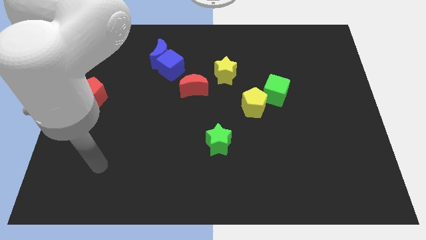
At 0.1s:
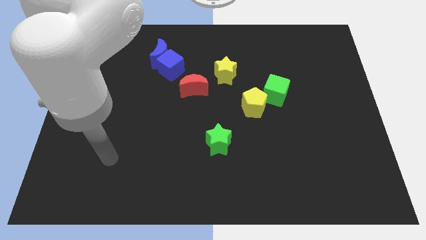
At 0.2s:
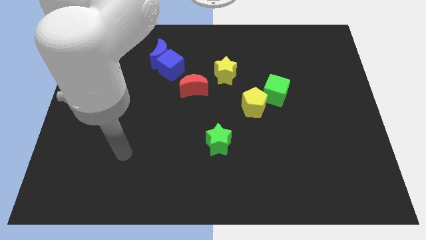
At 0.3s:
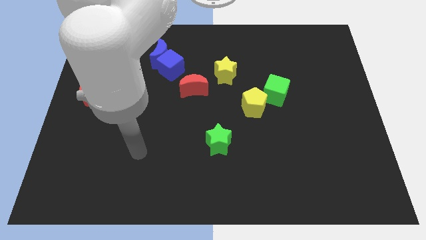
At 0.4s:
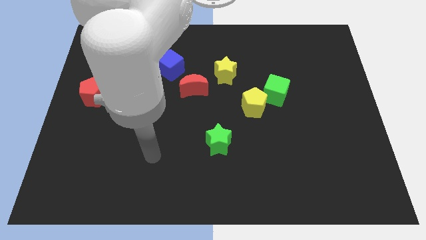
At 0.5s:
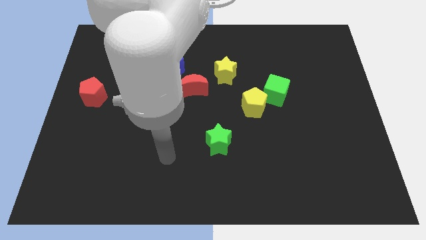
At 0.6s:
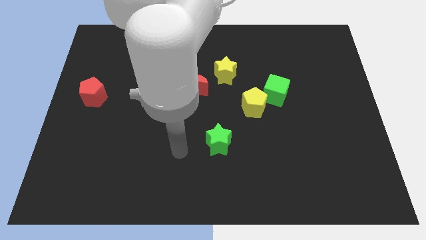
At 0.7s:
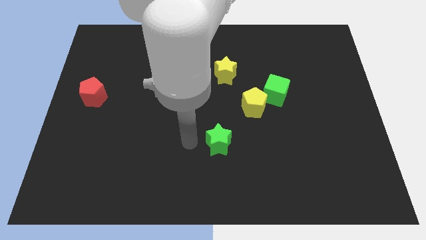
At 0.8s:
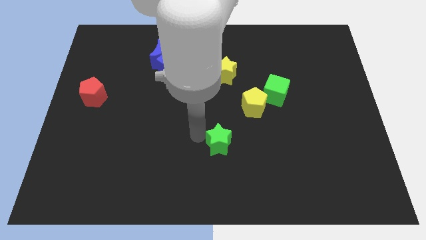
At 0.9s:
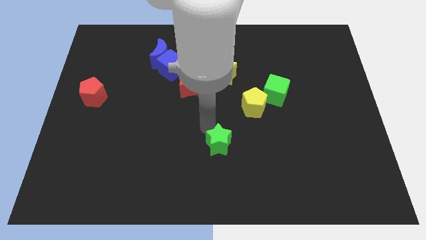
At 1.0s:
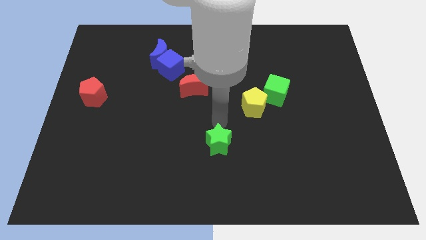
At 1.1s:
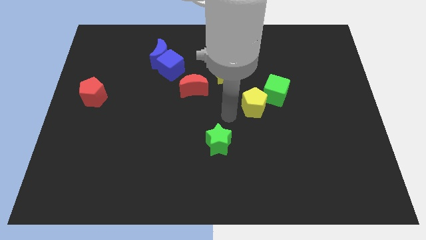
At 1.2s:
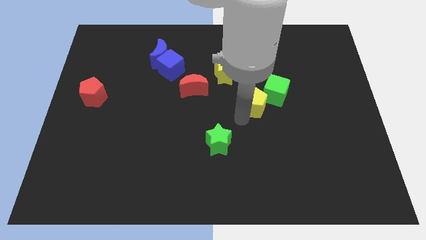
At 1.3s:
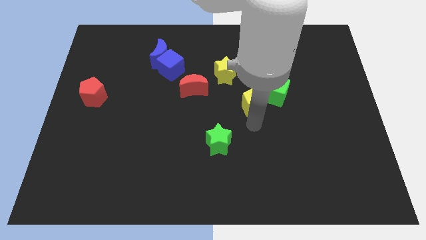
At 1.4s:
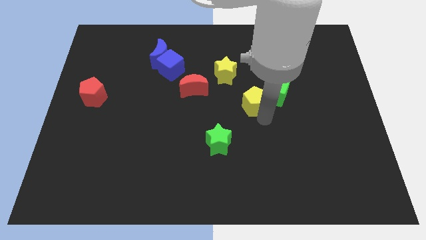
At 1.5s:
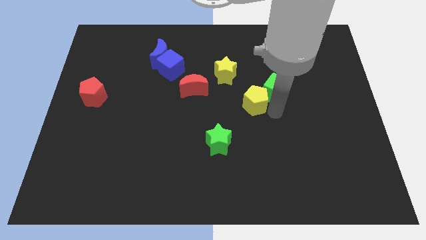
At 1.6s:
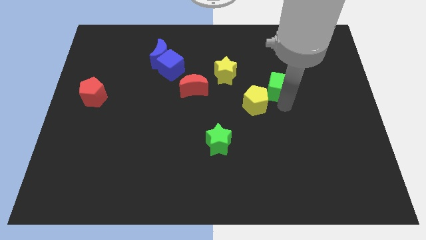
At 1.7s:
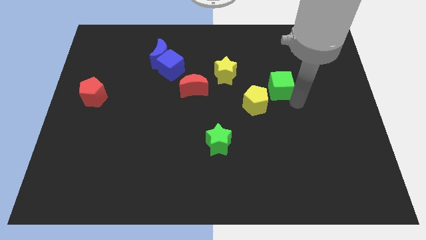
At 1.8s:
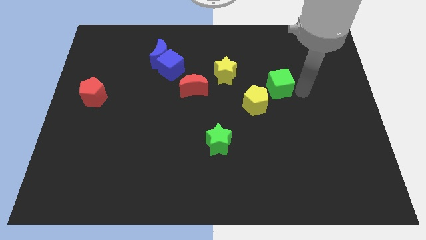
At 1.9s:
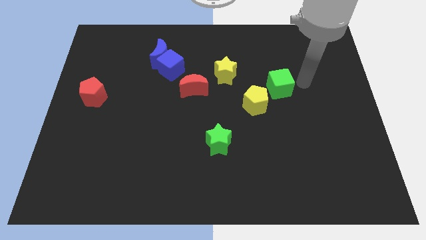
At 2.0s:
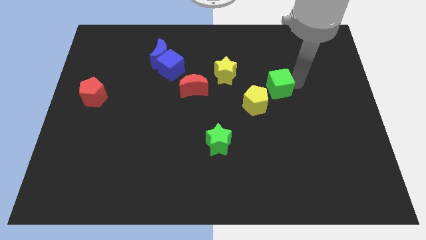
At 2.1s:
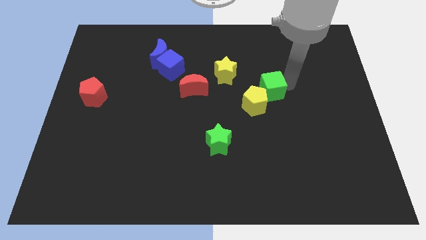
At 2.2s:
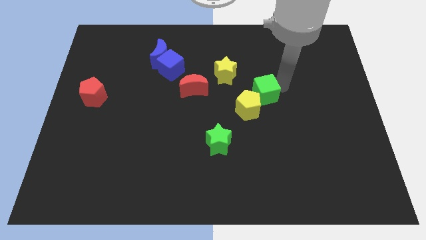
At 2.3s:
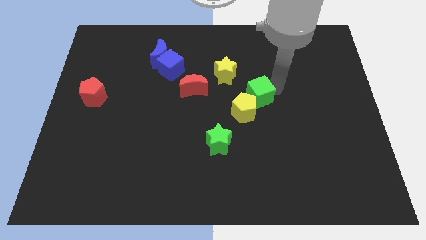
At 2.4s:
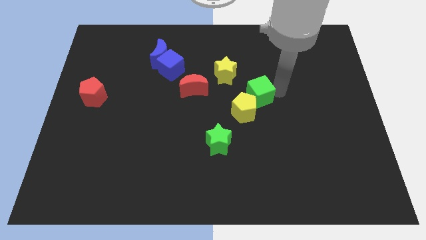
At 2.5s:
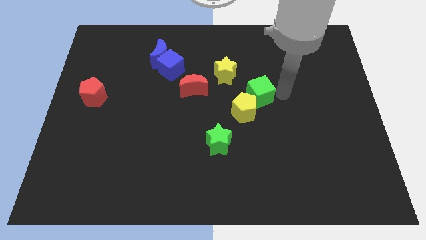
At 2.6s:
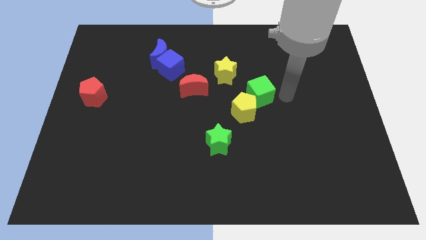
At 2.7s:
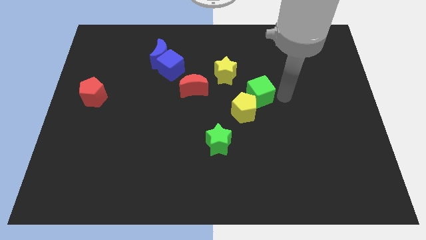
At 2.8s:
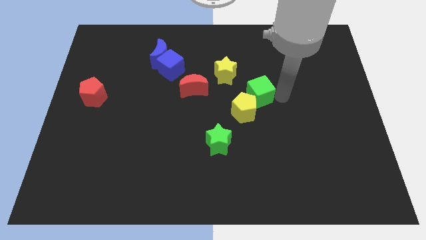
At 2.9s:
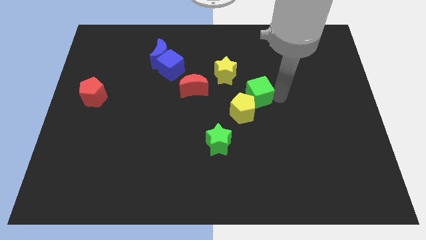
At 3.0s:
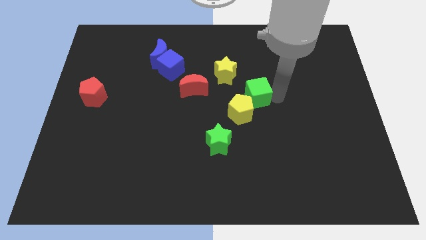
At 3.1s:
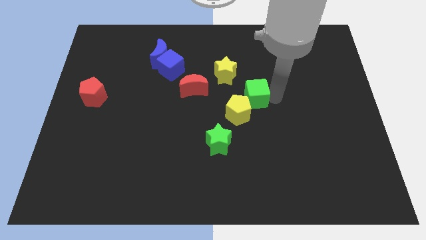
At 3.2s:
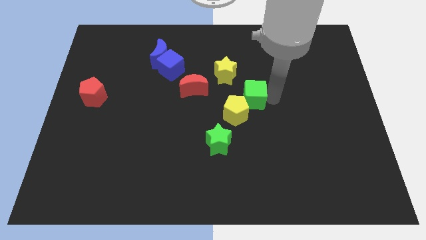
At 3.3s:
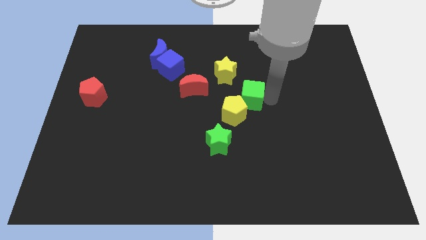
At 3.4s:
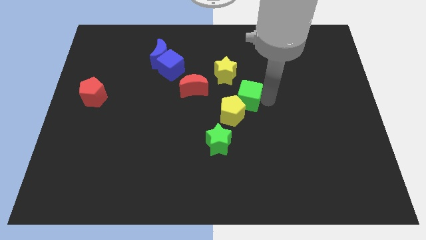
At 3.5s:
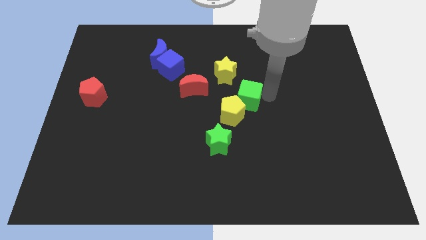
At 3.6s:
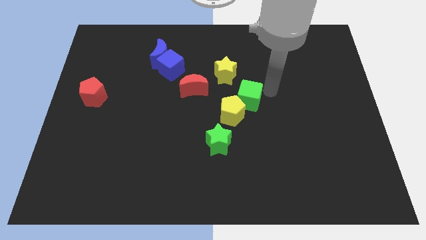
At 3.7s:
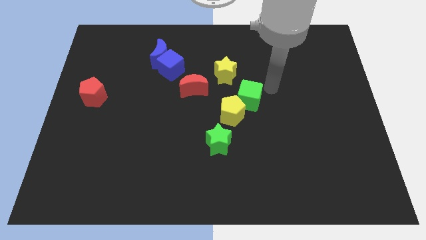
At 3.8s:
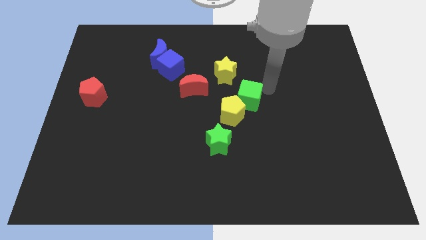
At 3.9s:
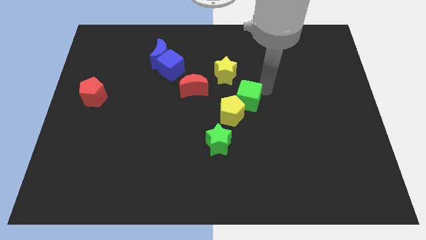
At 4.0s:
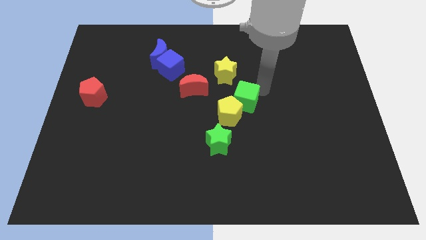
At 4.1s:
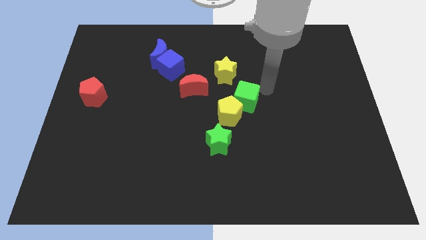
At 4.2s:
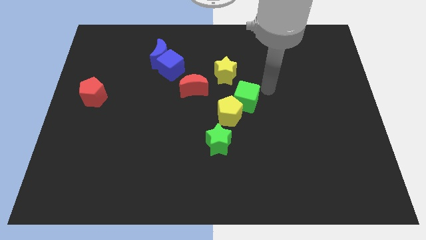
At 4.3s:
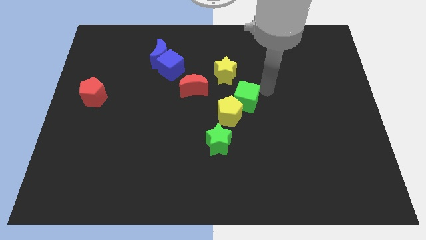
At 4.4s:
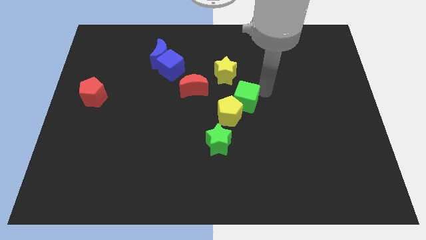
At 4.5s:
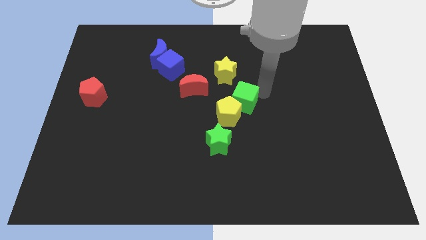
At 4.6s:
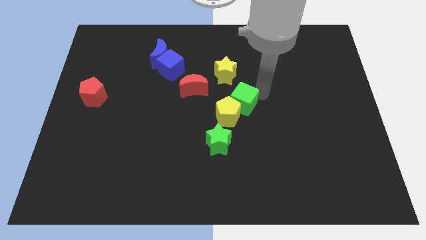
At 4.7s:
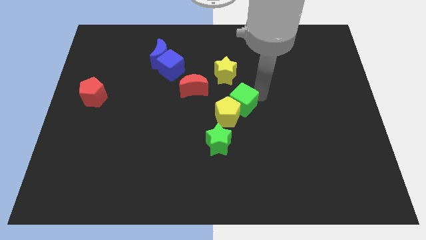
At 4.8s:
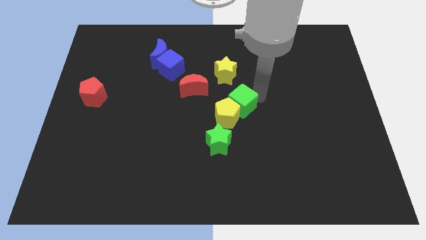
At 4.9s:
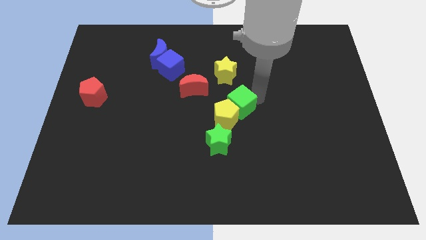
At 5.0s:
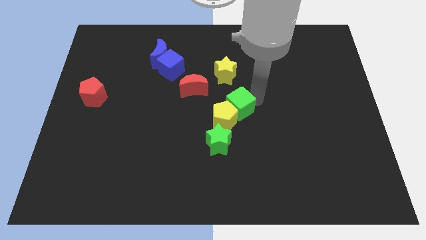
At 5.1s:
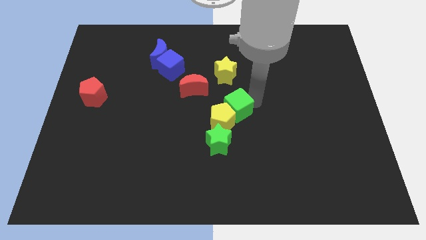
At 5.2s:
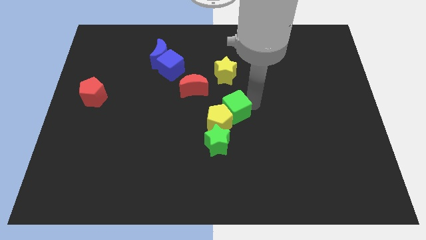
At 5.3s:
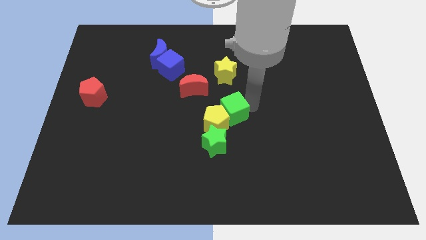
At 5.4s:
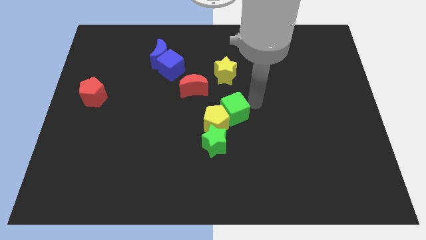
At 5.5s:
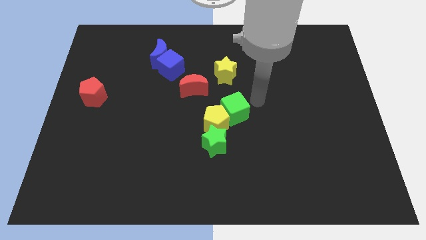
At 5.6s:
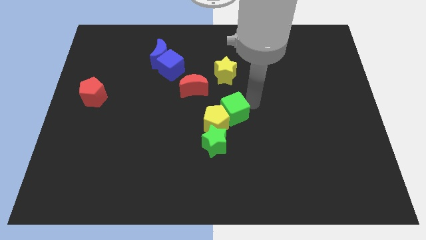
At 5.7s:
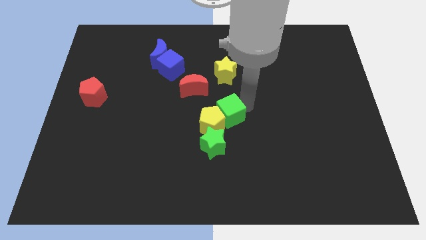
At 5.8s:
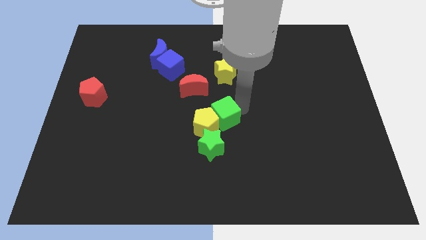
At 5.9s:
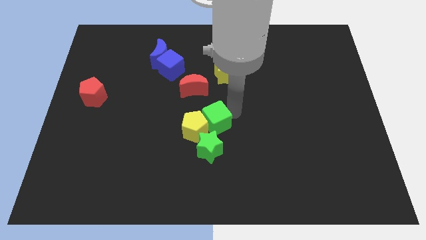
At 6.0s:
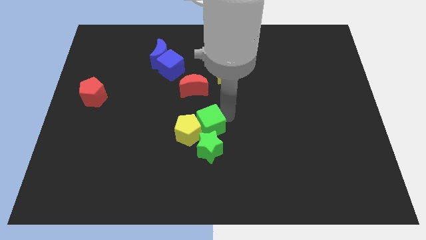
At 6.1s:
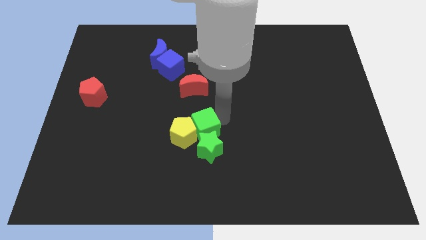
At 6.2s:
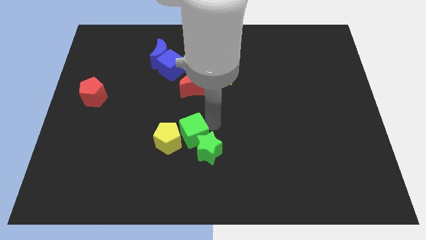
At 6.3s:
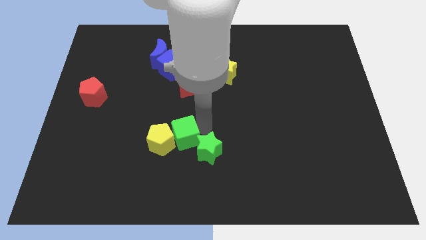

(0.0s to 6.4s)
push the green cube to the left side of the green star

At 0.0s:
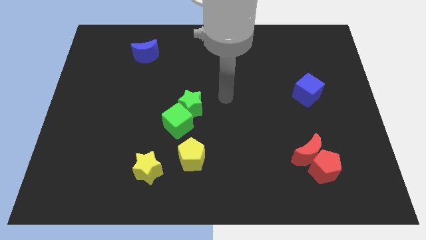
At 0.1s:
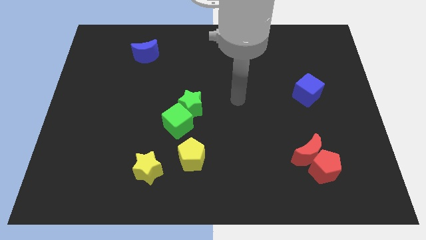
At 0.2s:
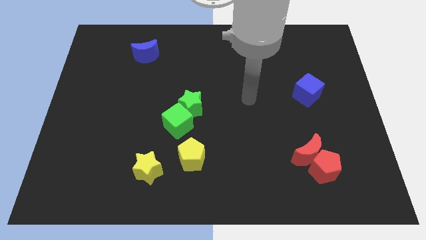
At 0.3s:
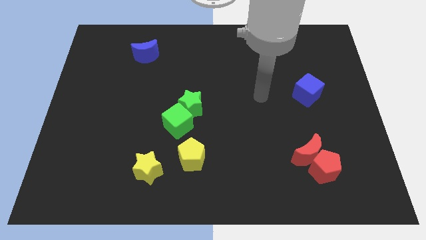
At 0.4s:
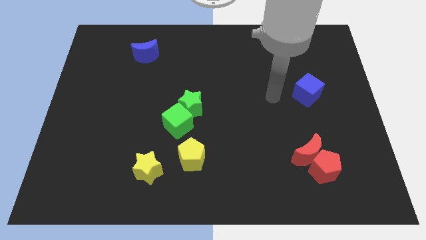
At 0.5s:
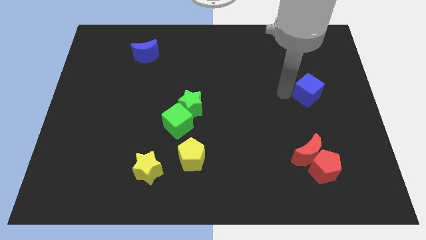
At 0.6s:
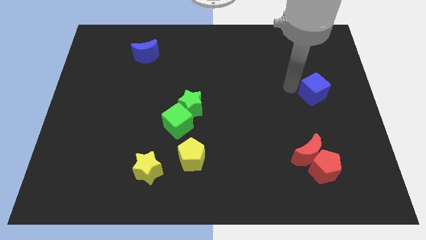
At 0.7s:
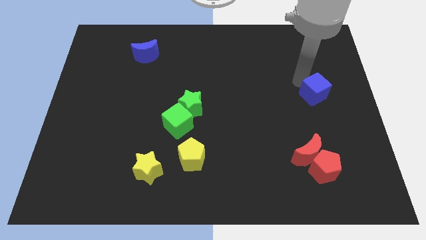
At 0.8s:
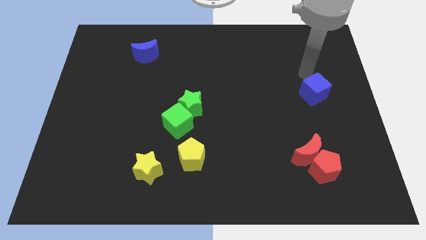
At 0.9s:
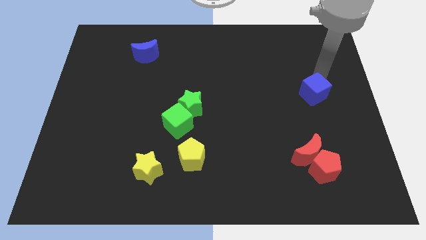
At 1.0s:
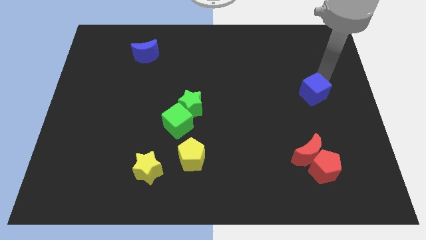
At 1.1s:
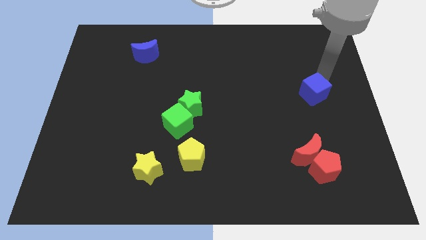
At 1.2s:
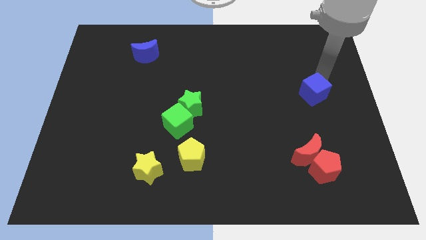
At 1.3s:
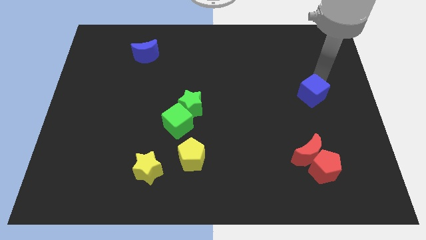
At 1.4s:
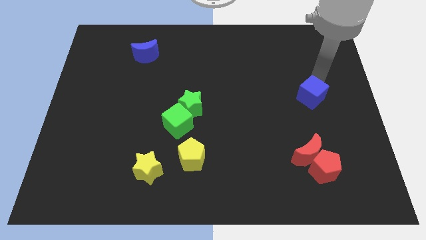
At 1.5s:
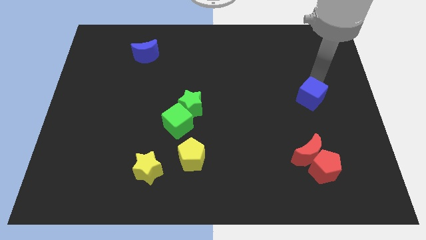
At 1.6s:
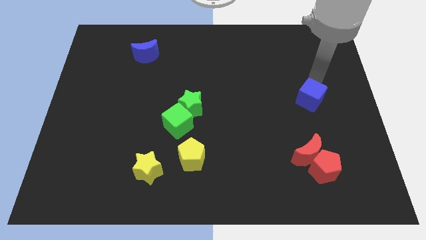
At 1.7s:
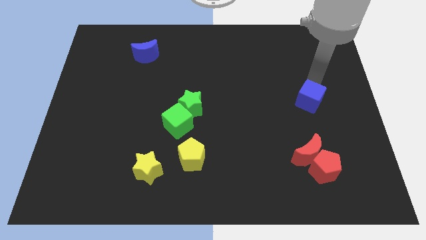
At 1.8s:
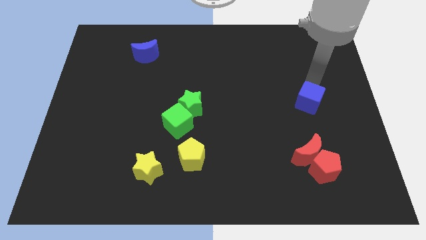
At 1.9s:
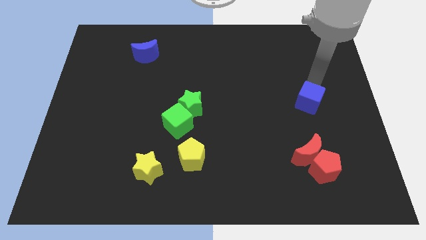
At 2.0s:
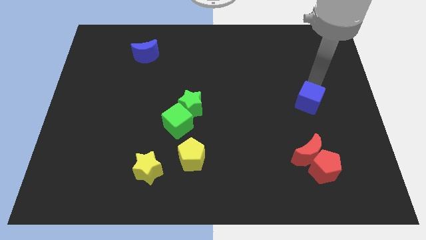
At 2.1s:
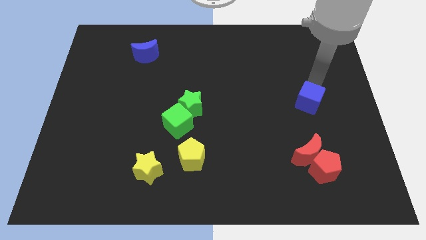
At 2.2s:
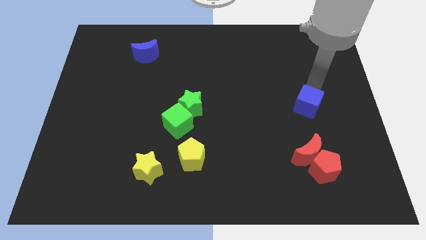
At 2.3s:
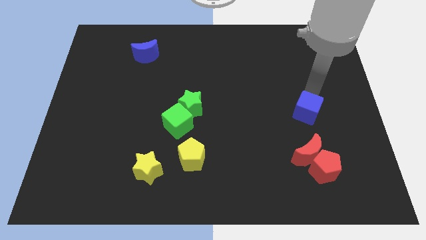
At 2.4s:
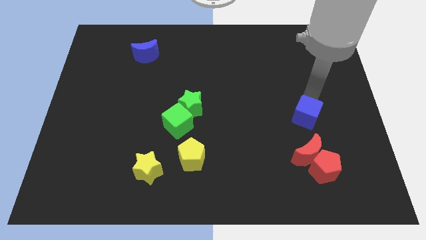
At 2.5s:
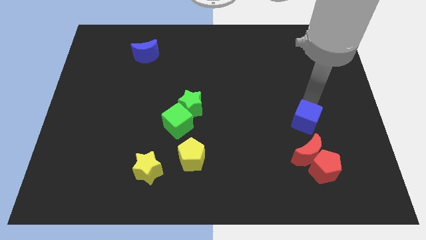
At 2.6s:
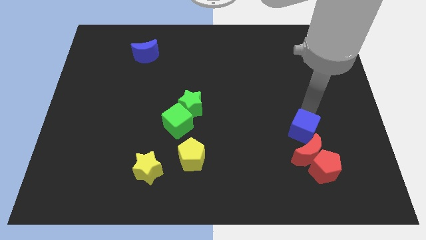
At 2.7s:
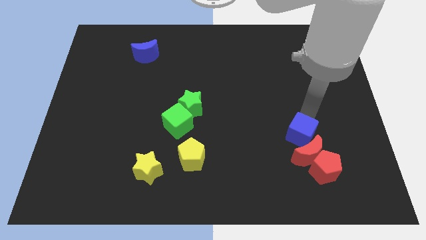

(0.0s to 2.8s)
push the blue cube to the top left of the red pentagon
